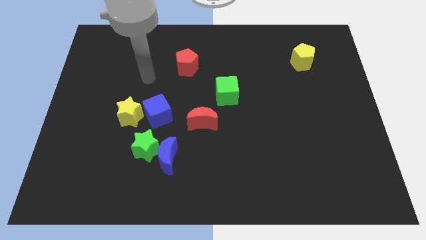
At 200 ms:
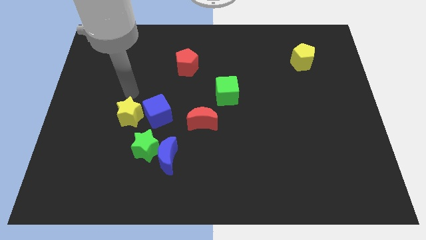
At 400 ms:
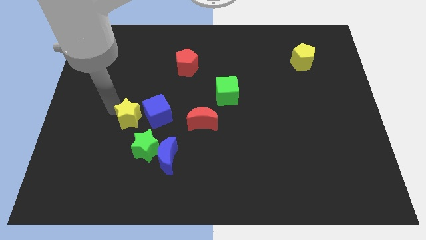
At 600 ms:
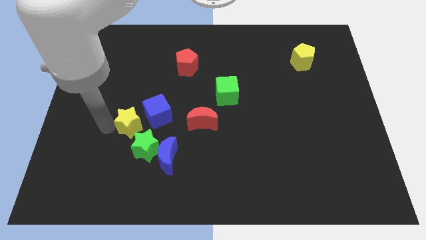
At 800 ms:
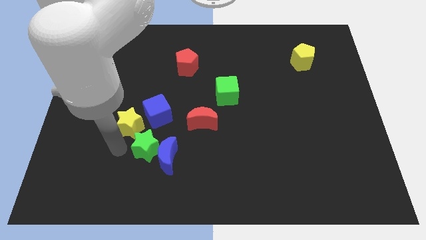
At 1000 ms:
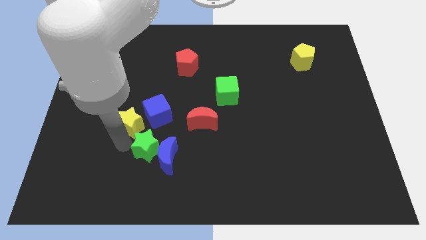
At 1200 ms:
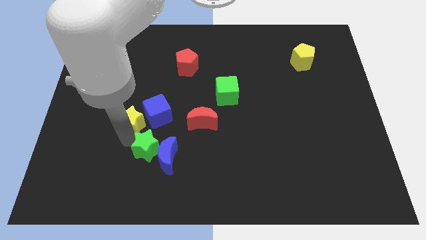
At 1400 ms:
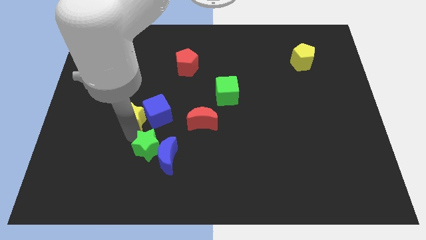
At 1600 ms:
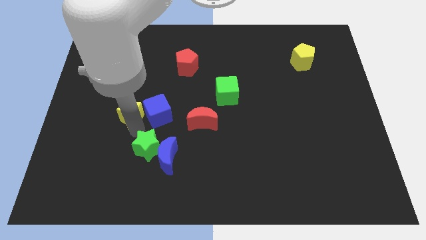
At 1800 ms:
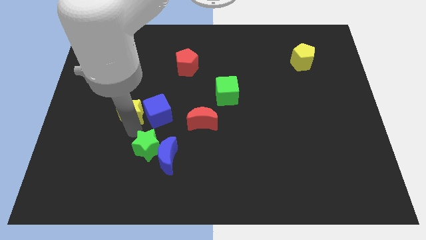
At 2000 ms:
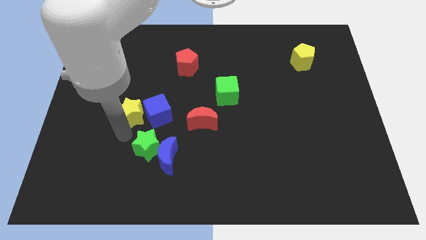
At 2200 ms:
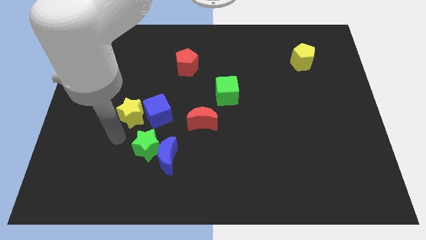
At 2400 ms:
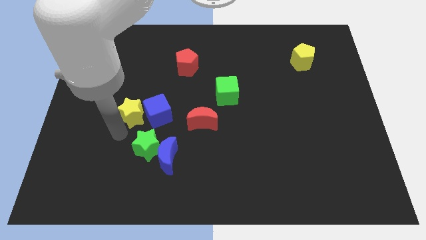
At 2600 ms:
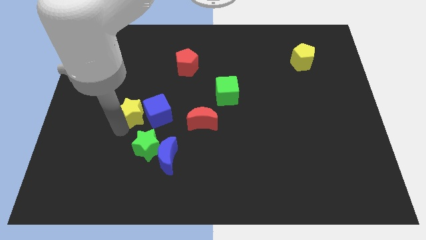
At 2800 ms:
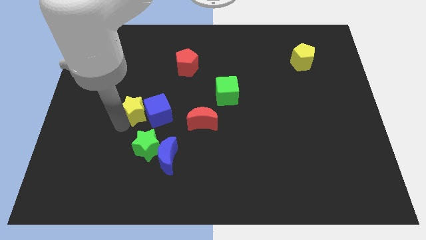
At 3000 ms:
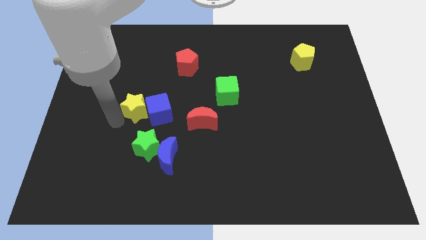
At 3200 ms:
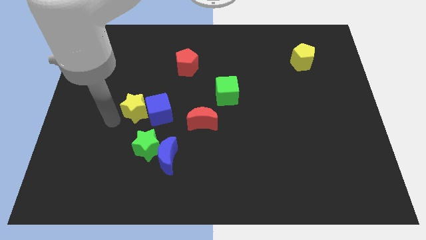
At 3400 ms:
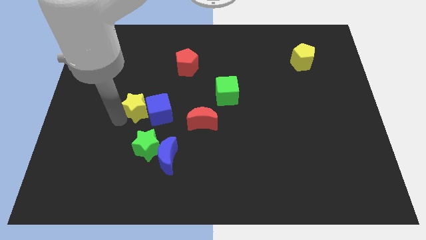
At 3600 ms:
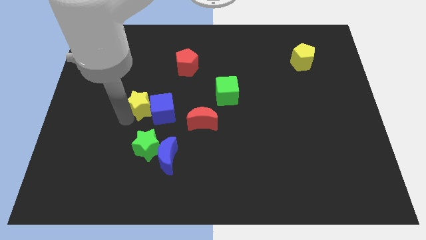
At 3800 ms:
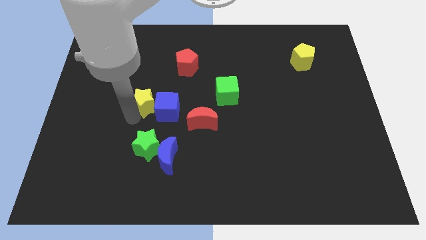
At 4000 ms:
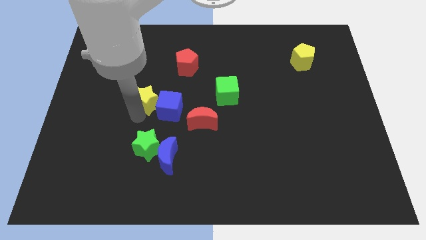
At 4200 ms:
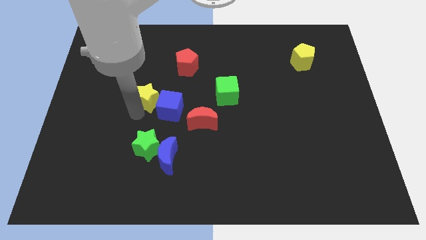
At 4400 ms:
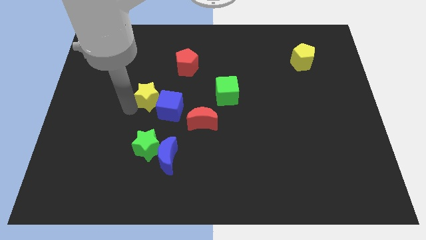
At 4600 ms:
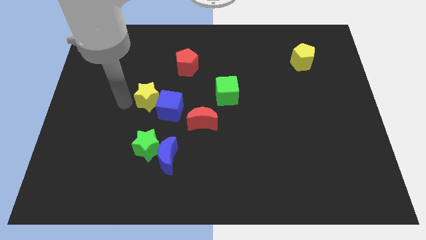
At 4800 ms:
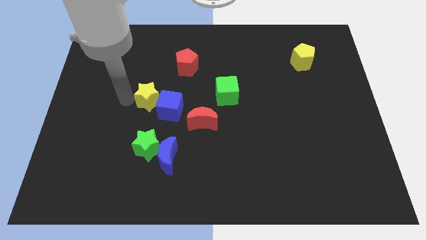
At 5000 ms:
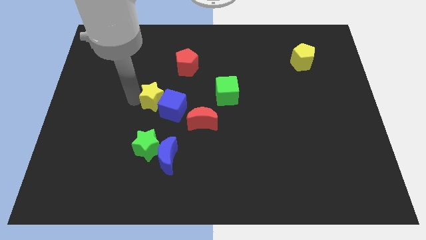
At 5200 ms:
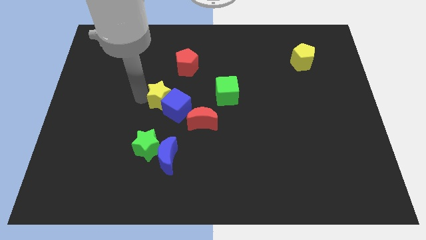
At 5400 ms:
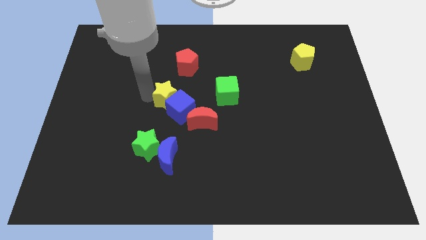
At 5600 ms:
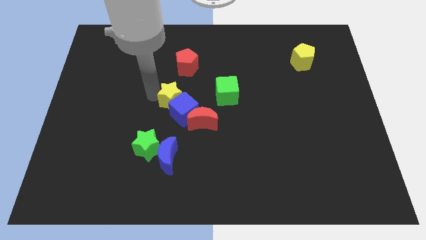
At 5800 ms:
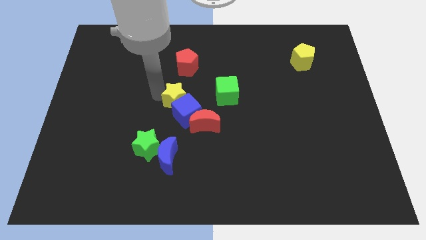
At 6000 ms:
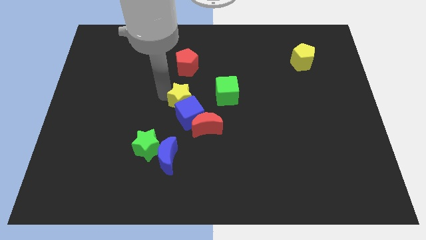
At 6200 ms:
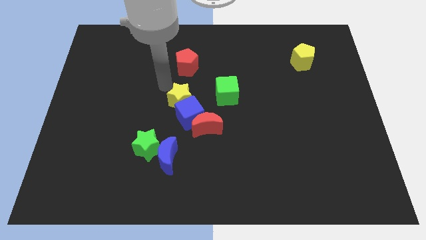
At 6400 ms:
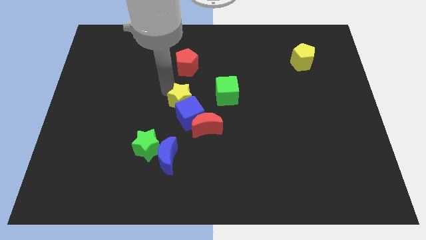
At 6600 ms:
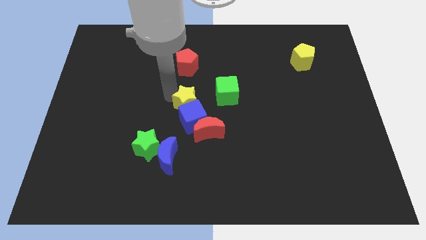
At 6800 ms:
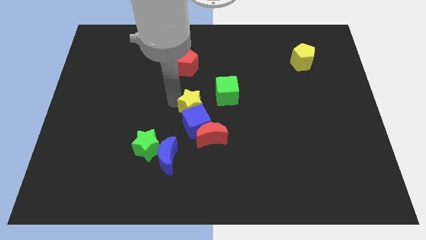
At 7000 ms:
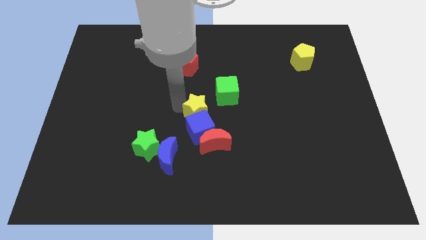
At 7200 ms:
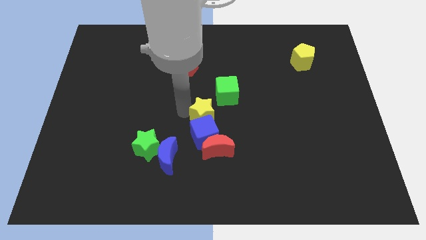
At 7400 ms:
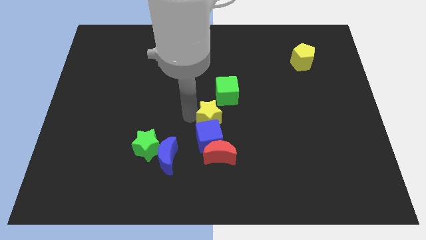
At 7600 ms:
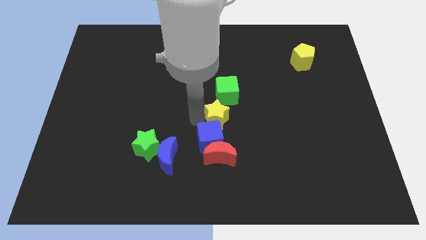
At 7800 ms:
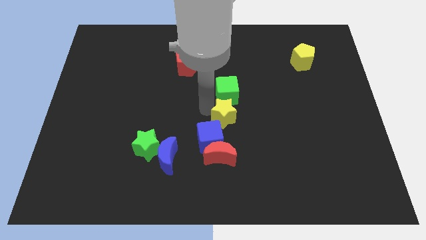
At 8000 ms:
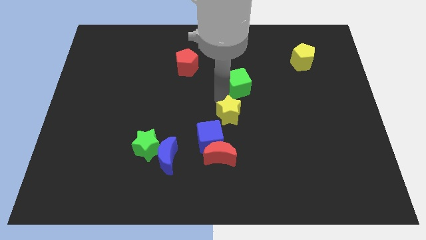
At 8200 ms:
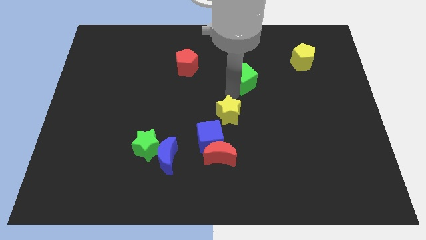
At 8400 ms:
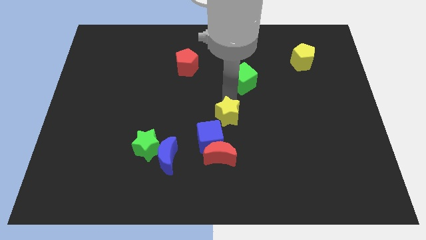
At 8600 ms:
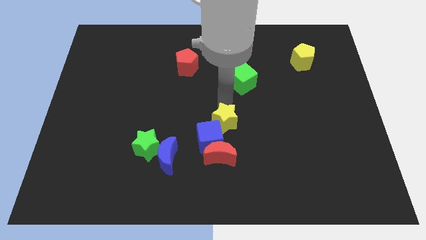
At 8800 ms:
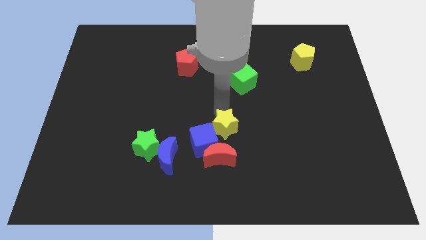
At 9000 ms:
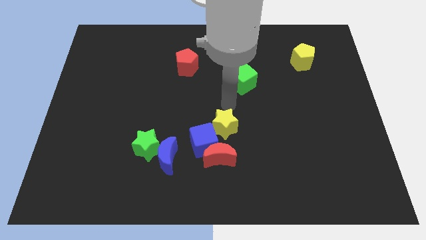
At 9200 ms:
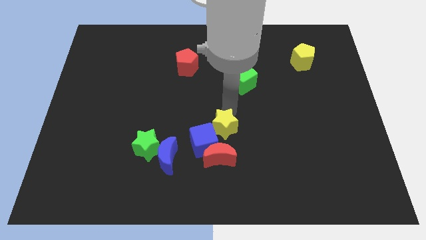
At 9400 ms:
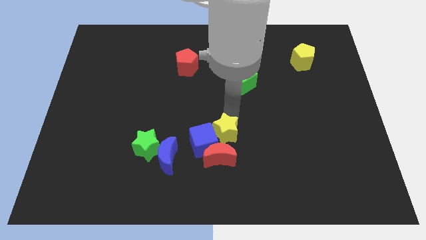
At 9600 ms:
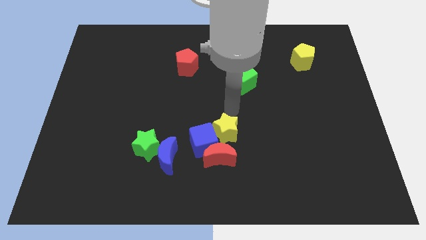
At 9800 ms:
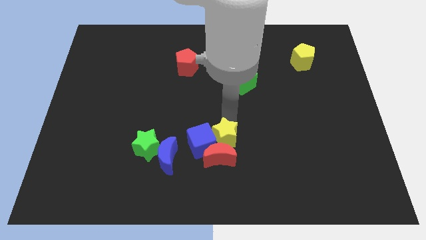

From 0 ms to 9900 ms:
slide the yellow star next to the red moon

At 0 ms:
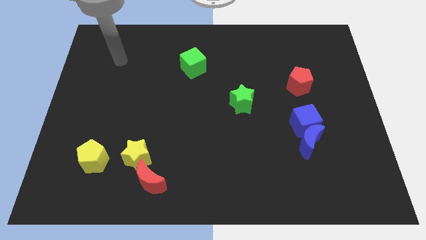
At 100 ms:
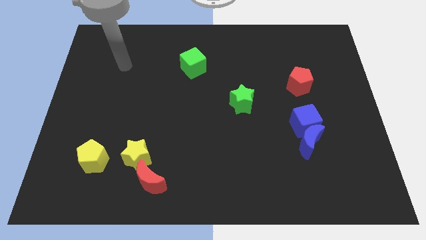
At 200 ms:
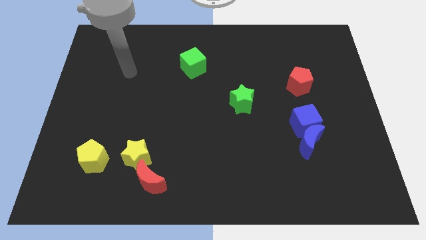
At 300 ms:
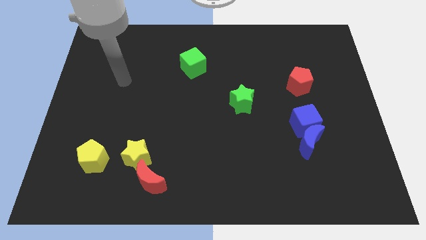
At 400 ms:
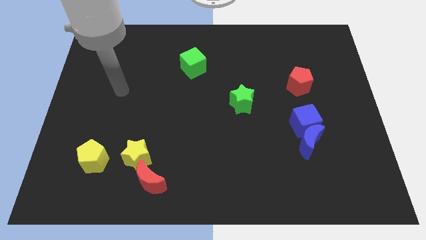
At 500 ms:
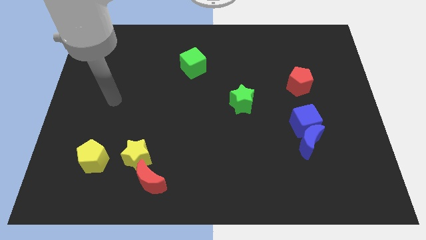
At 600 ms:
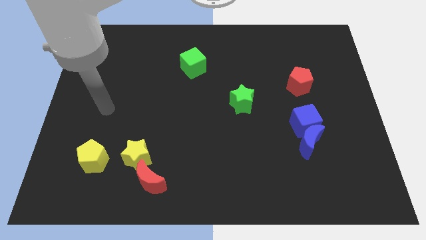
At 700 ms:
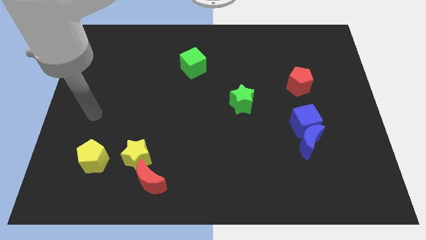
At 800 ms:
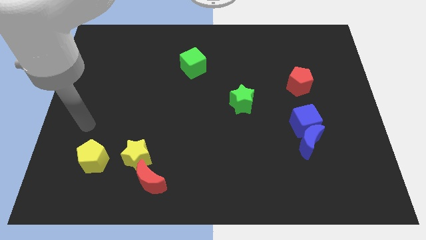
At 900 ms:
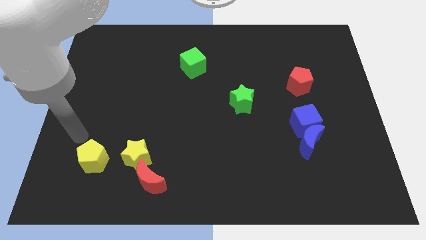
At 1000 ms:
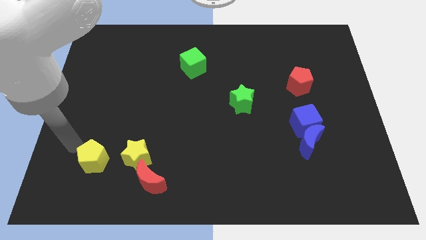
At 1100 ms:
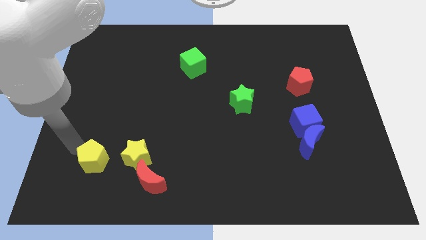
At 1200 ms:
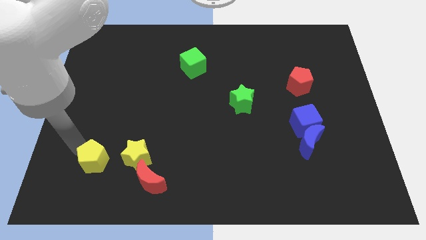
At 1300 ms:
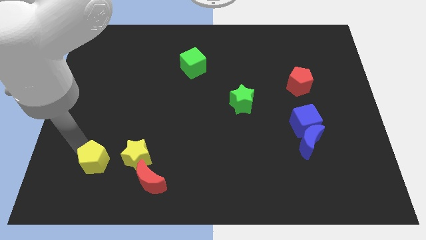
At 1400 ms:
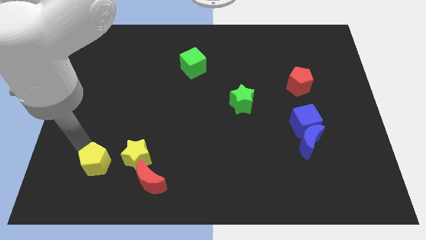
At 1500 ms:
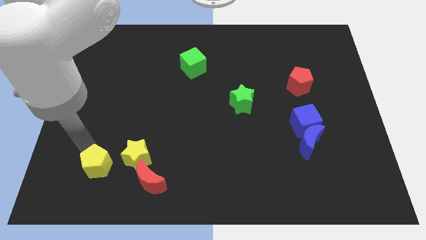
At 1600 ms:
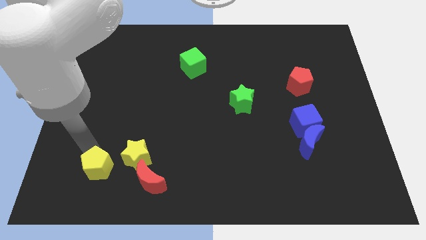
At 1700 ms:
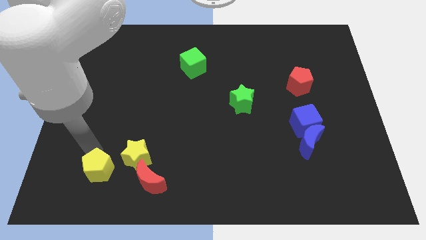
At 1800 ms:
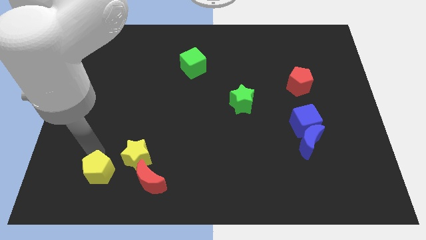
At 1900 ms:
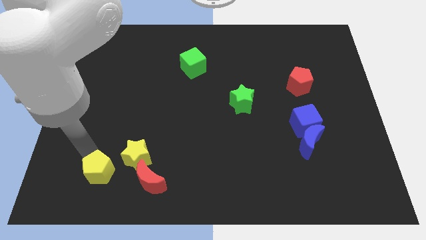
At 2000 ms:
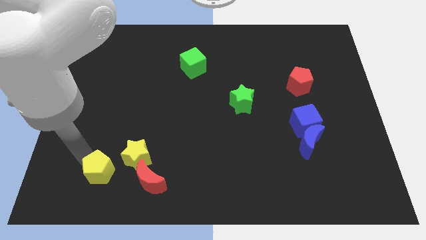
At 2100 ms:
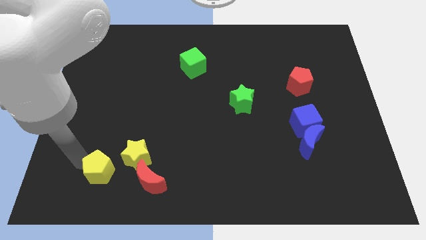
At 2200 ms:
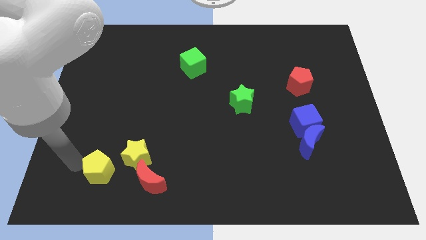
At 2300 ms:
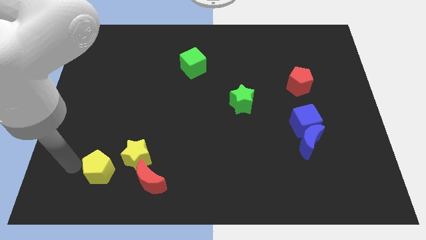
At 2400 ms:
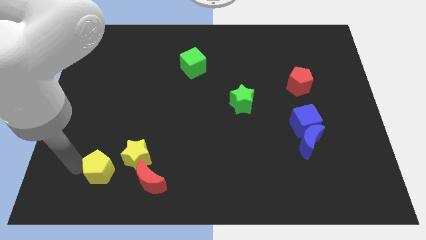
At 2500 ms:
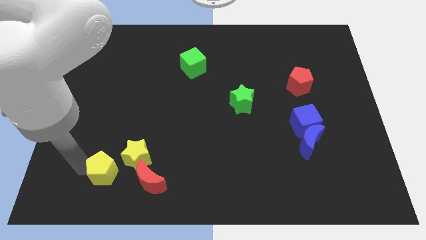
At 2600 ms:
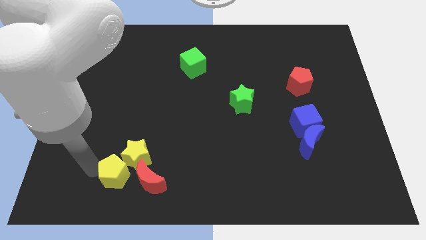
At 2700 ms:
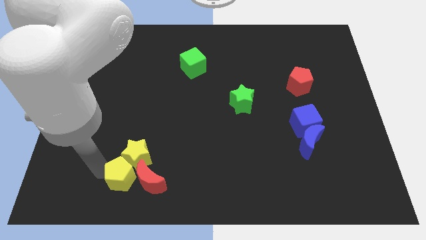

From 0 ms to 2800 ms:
put the yellow pentagon to the red moon
